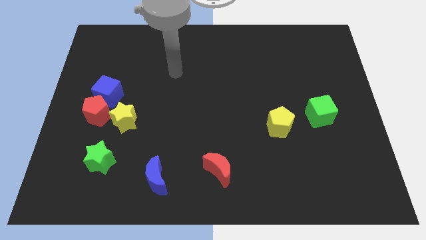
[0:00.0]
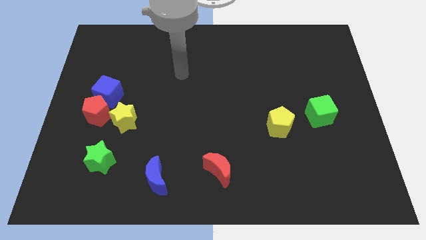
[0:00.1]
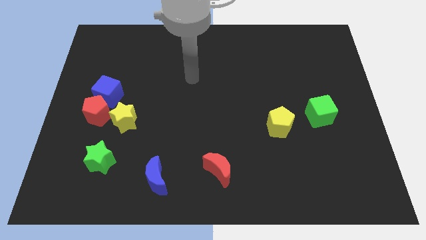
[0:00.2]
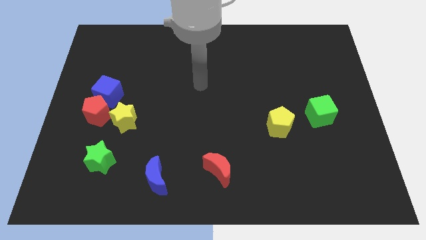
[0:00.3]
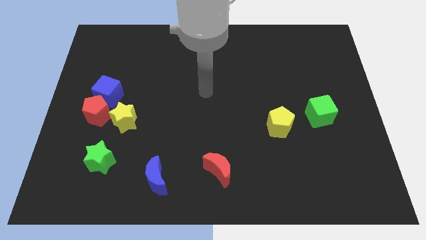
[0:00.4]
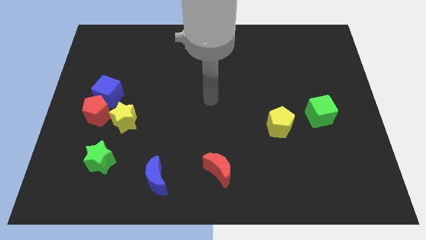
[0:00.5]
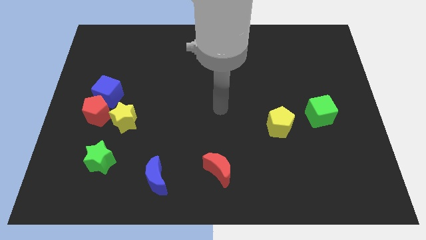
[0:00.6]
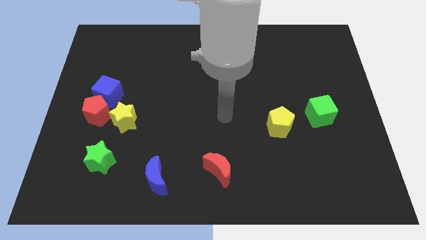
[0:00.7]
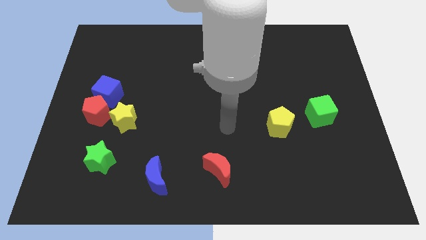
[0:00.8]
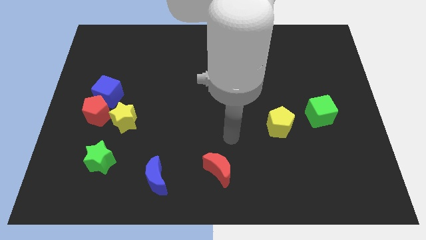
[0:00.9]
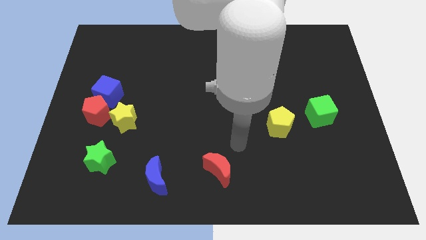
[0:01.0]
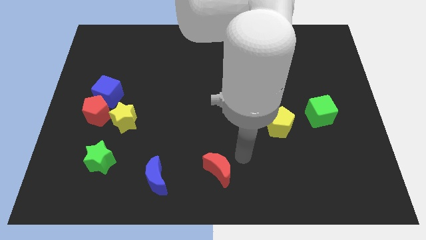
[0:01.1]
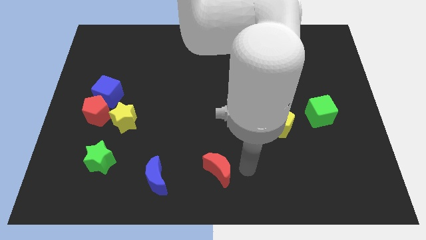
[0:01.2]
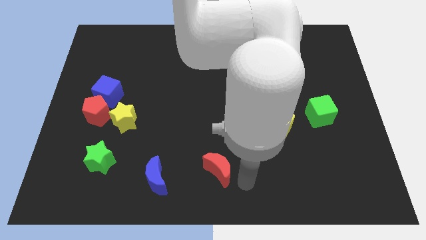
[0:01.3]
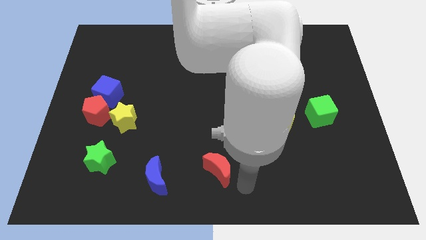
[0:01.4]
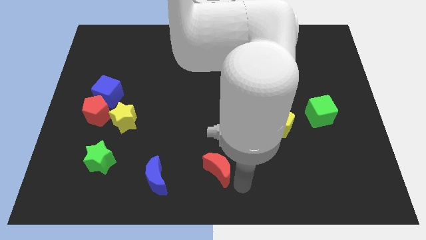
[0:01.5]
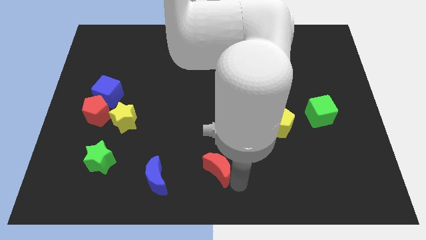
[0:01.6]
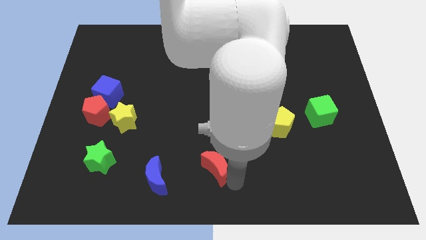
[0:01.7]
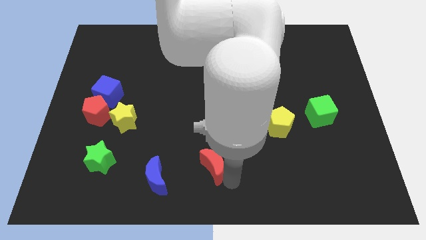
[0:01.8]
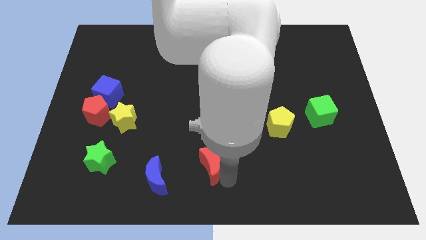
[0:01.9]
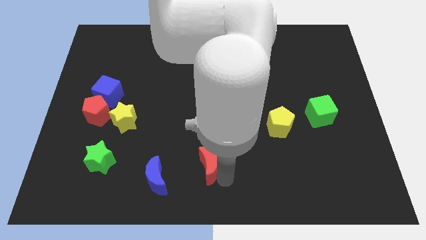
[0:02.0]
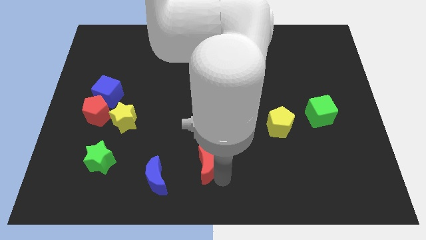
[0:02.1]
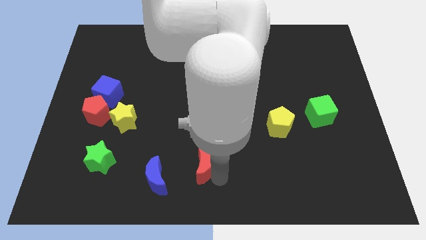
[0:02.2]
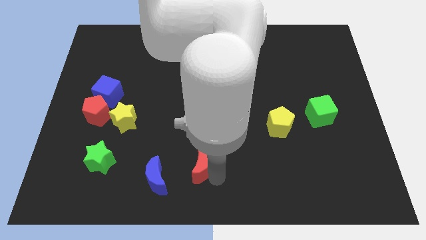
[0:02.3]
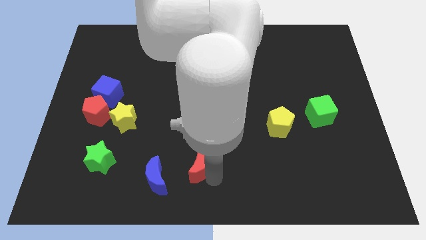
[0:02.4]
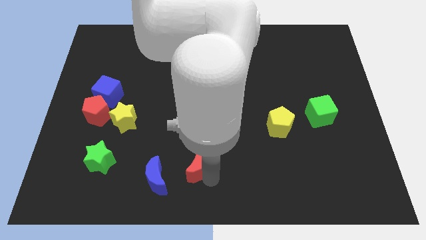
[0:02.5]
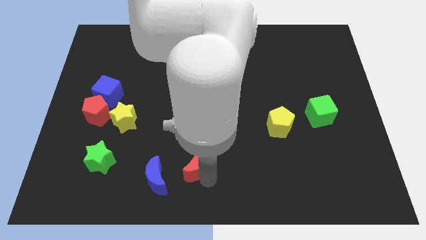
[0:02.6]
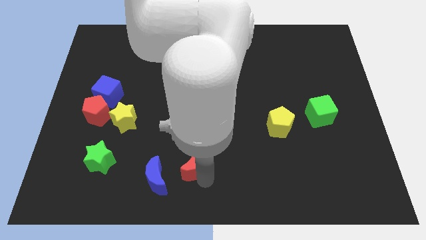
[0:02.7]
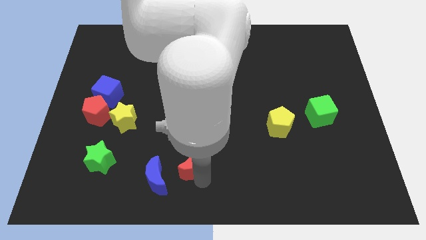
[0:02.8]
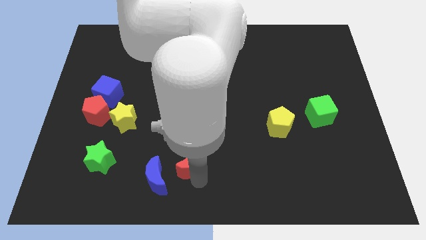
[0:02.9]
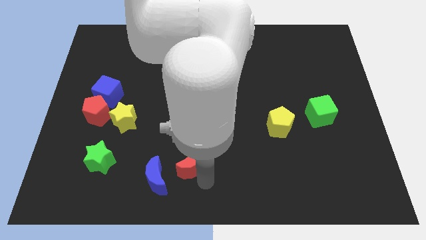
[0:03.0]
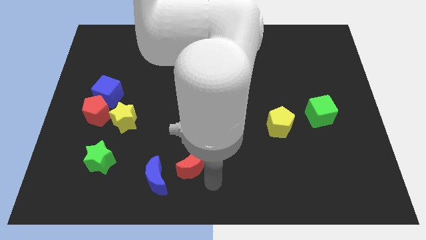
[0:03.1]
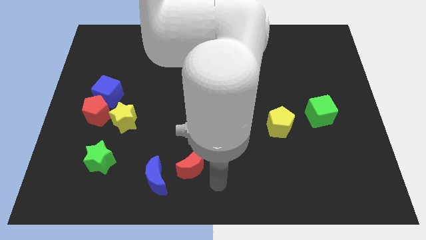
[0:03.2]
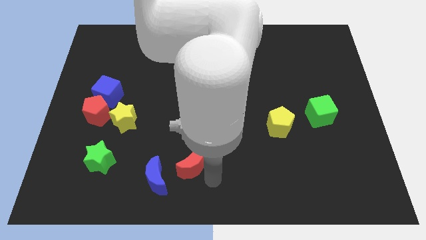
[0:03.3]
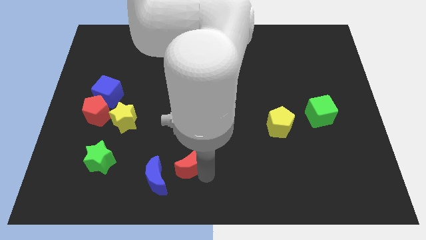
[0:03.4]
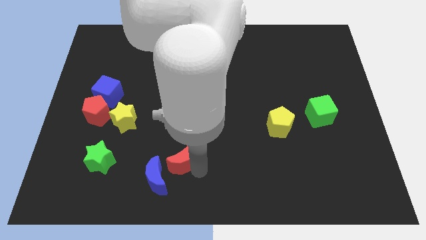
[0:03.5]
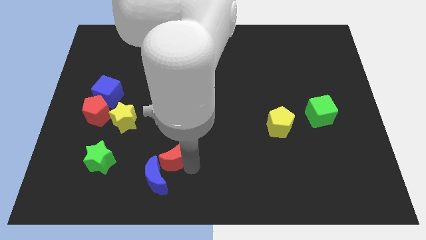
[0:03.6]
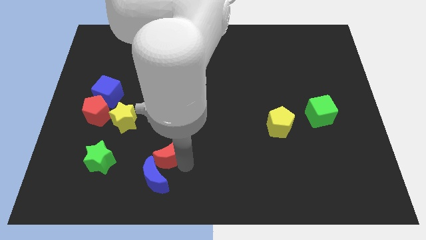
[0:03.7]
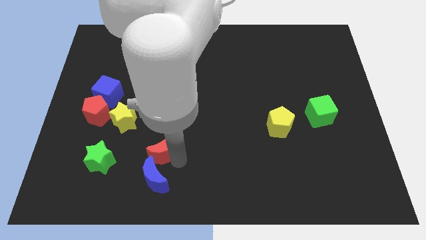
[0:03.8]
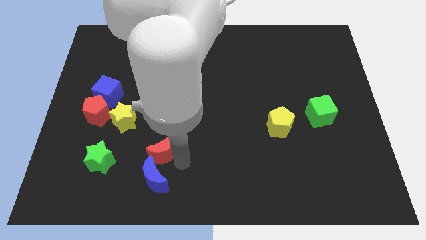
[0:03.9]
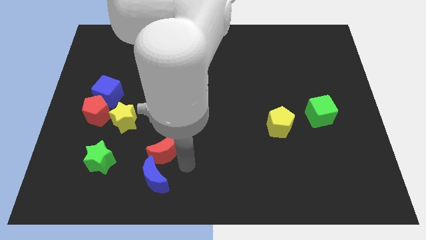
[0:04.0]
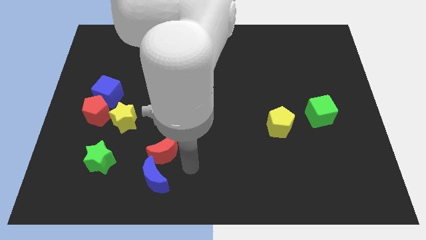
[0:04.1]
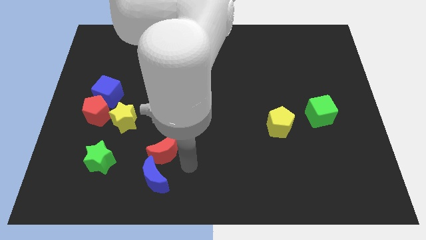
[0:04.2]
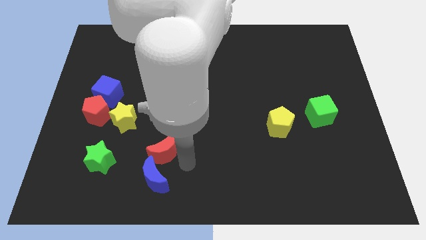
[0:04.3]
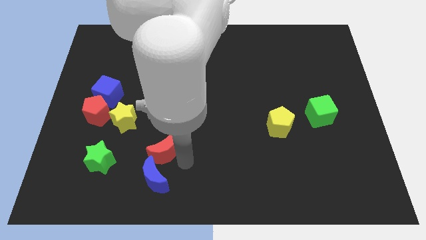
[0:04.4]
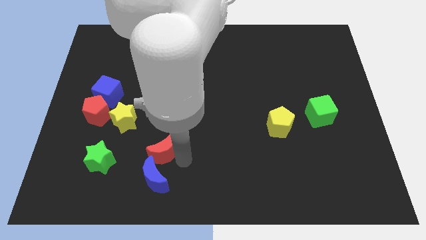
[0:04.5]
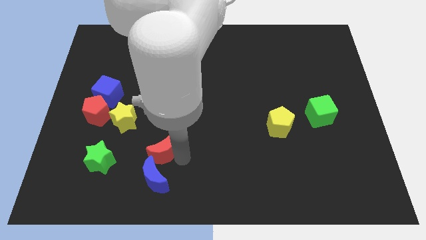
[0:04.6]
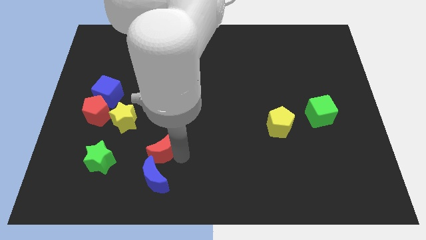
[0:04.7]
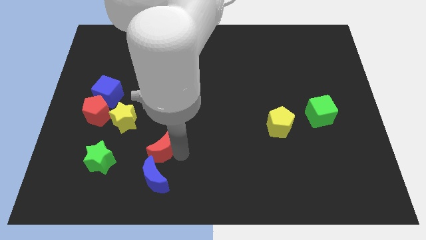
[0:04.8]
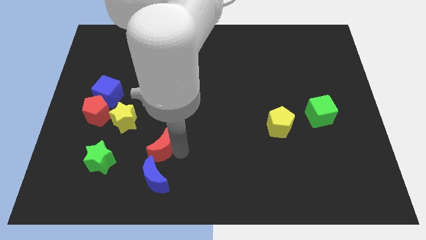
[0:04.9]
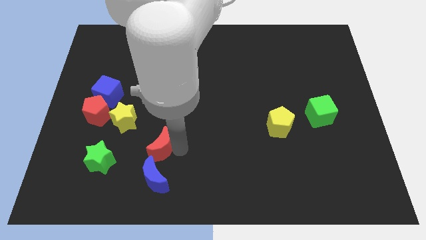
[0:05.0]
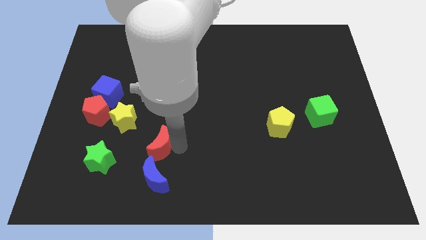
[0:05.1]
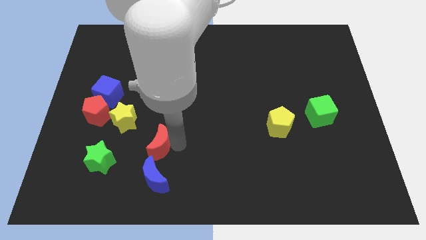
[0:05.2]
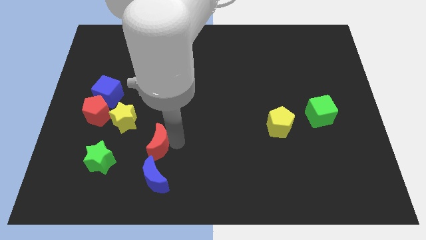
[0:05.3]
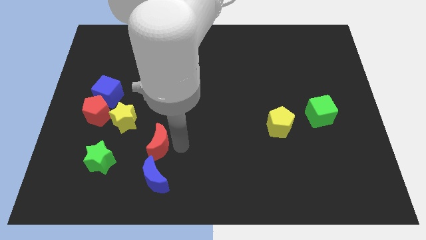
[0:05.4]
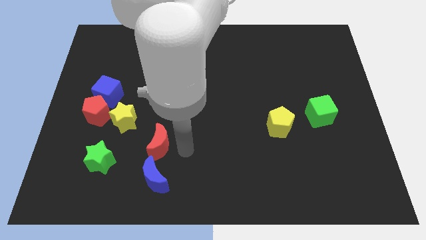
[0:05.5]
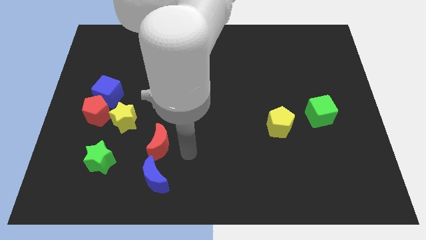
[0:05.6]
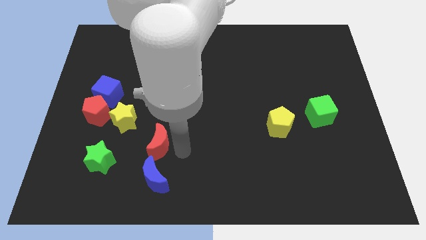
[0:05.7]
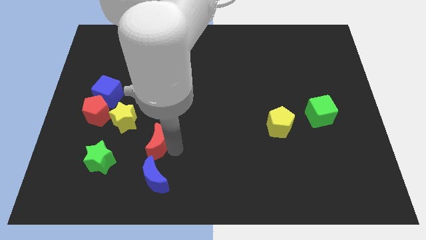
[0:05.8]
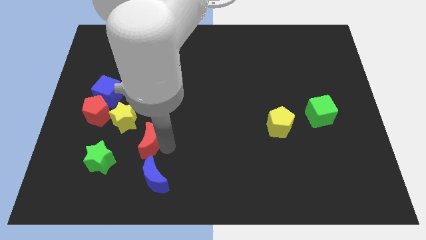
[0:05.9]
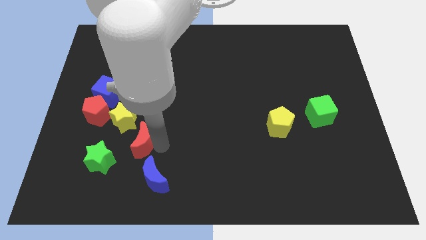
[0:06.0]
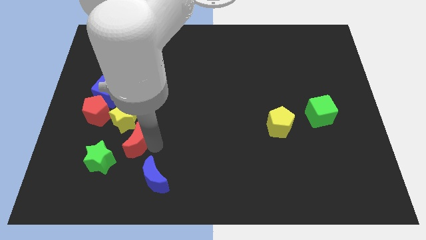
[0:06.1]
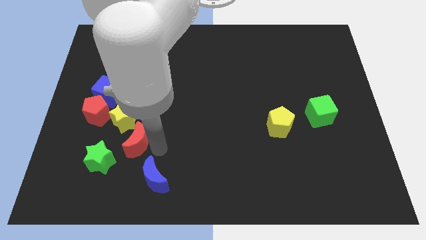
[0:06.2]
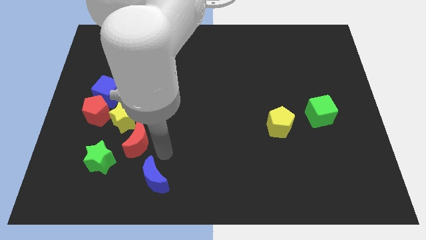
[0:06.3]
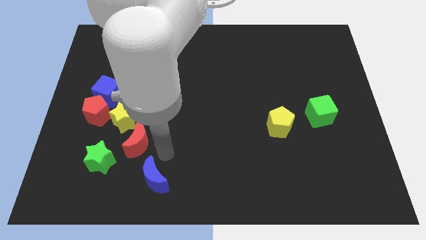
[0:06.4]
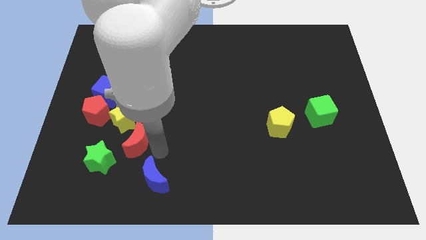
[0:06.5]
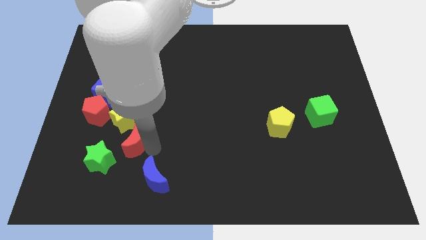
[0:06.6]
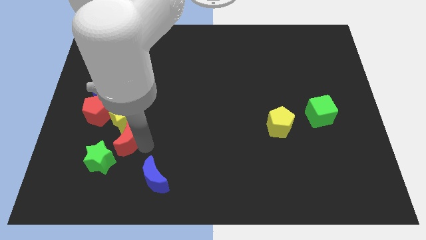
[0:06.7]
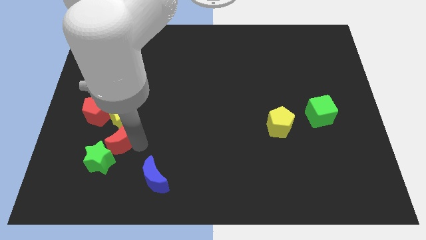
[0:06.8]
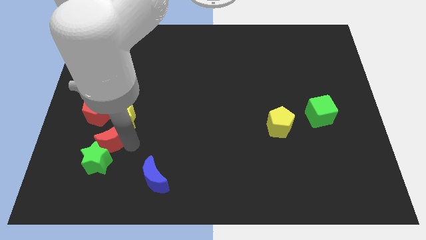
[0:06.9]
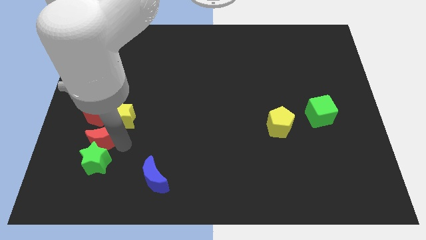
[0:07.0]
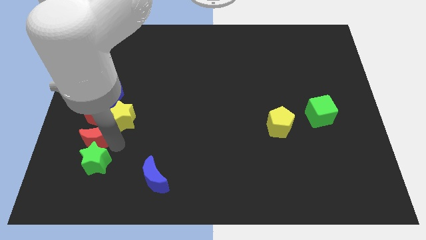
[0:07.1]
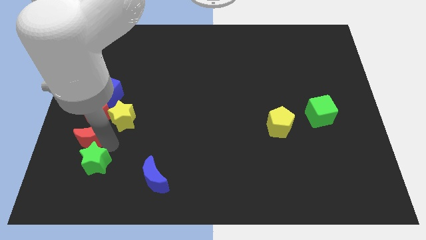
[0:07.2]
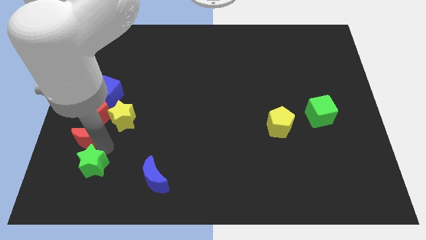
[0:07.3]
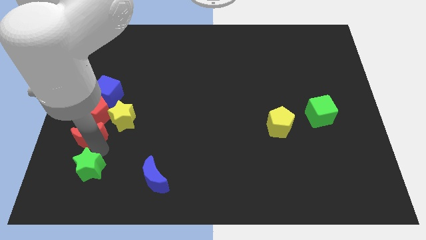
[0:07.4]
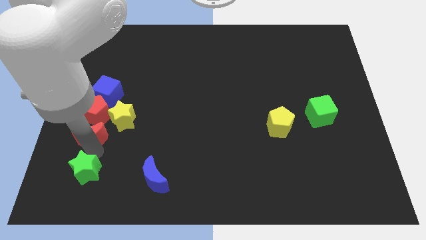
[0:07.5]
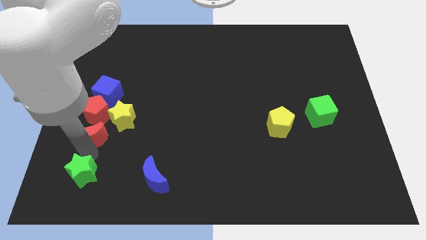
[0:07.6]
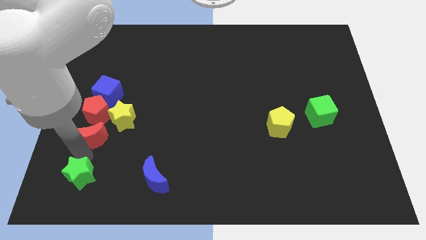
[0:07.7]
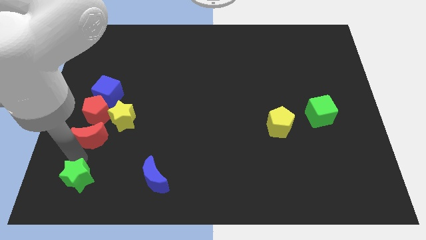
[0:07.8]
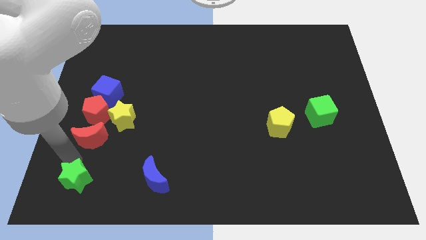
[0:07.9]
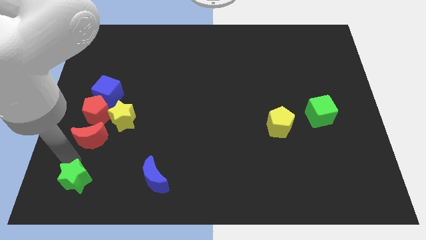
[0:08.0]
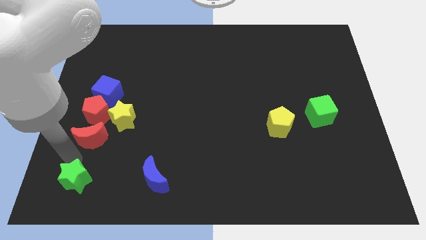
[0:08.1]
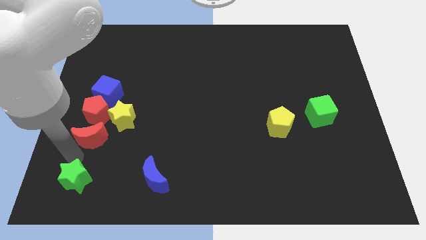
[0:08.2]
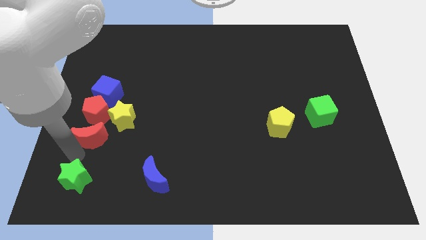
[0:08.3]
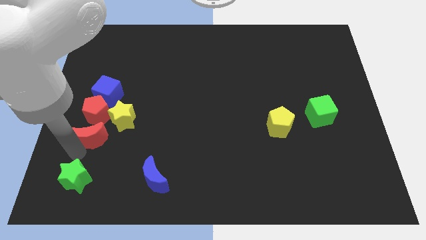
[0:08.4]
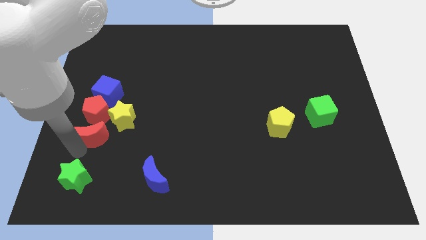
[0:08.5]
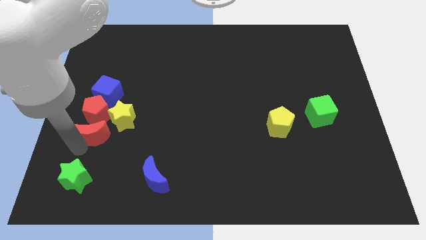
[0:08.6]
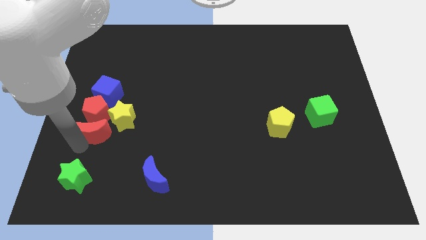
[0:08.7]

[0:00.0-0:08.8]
slide the red moon close to the red pentagon
